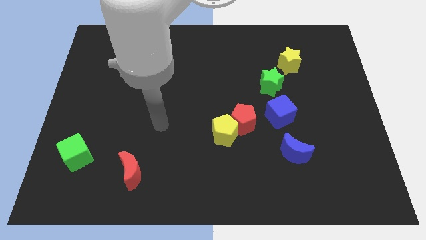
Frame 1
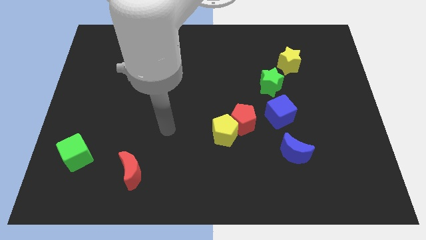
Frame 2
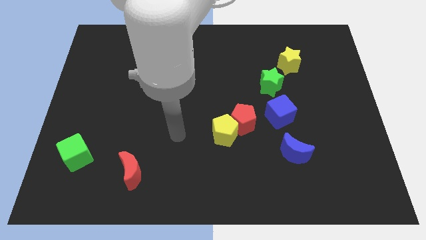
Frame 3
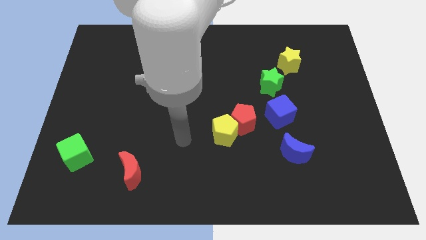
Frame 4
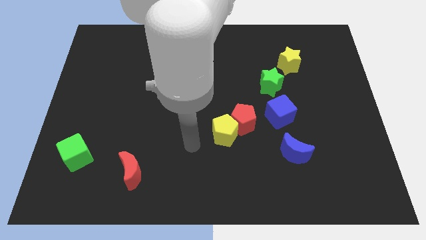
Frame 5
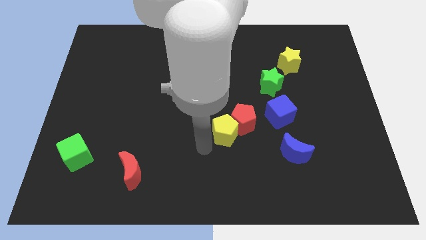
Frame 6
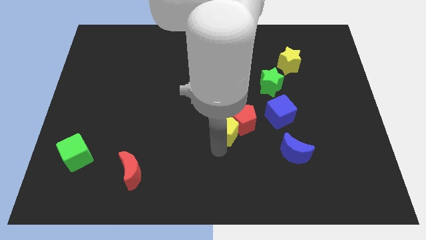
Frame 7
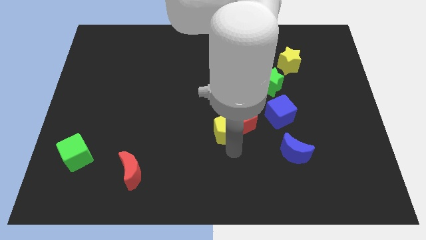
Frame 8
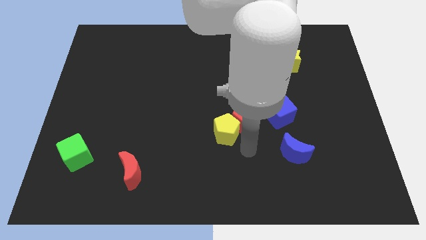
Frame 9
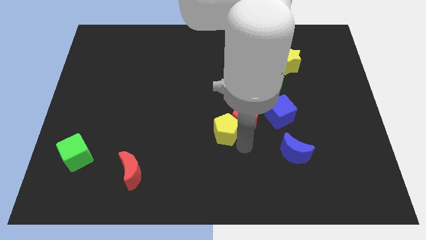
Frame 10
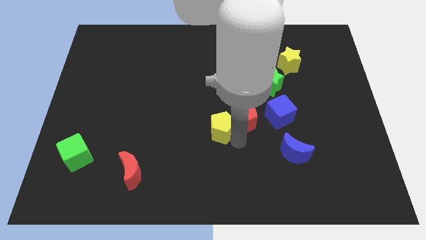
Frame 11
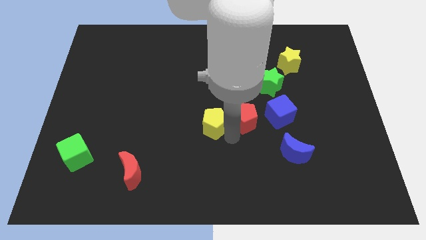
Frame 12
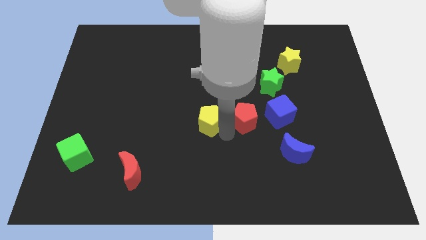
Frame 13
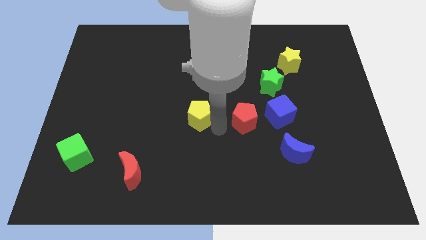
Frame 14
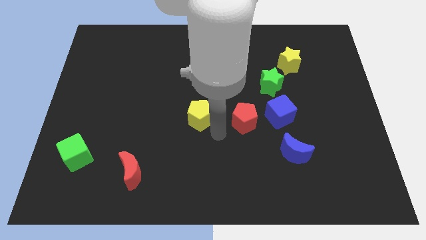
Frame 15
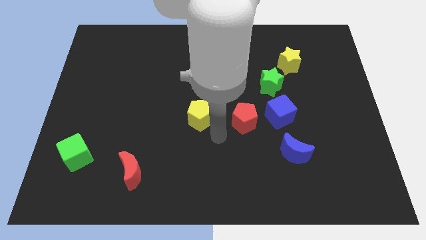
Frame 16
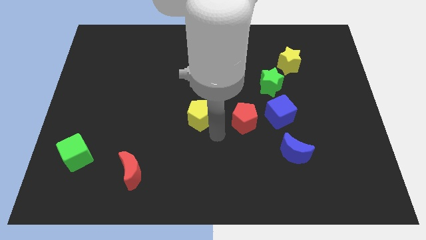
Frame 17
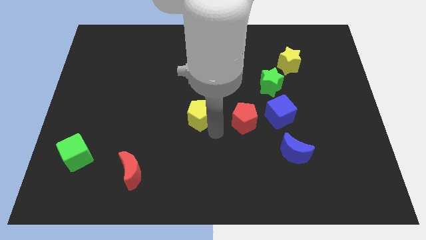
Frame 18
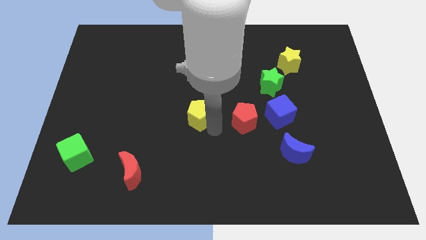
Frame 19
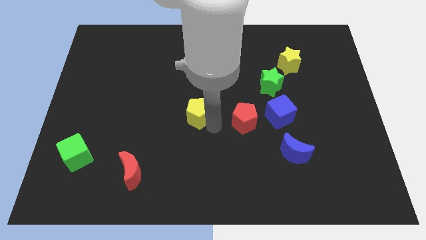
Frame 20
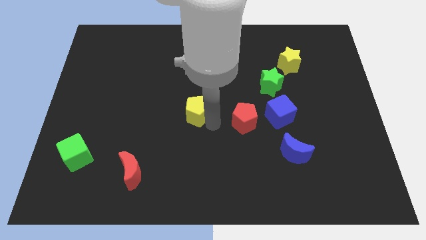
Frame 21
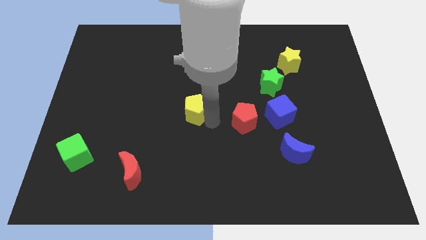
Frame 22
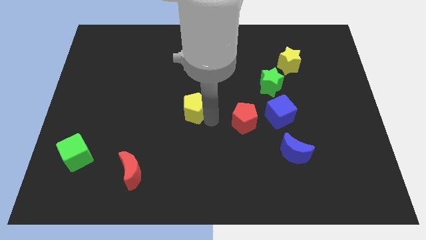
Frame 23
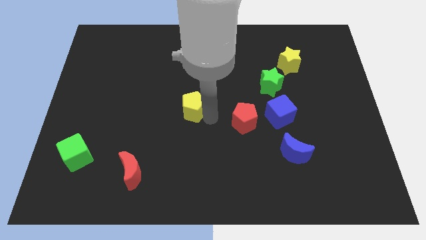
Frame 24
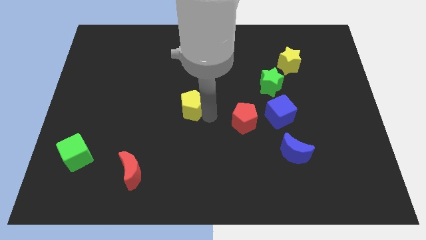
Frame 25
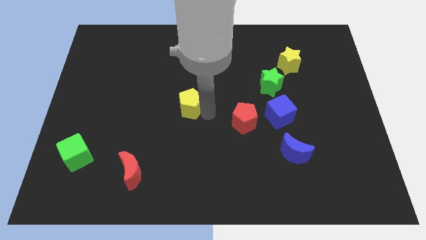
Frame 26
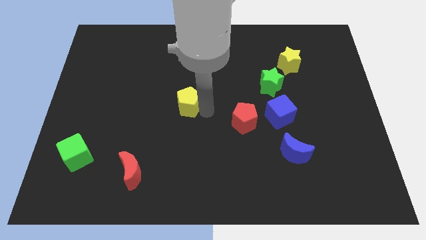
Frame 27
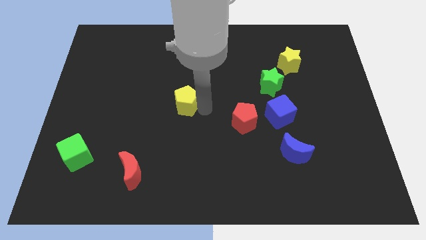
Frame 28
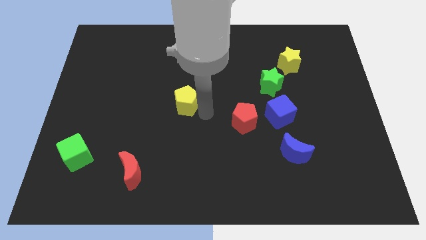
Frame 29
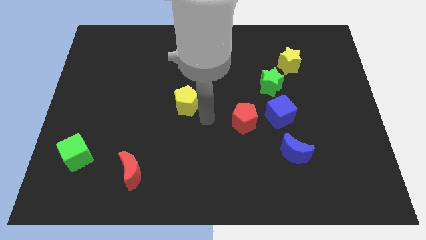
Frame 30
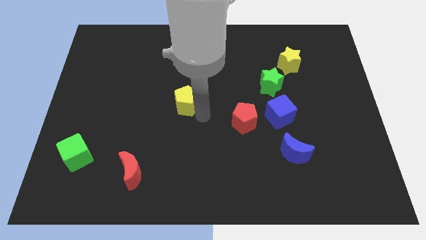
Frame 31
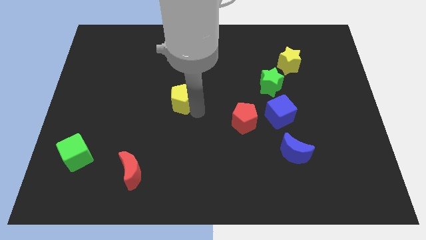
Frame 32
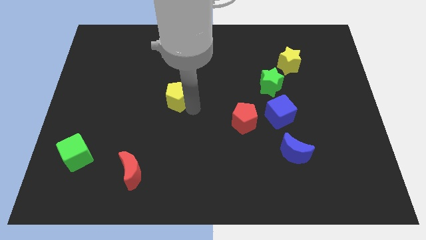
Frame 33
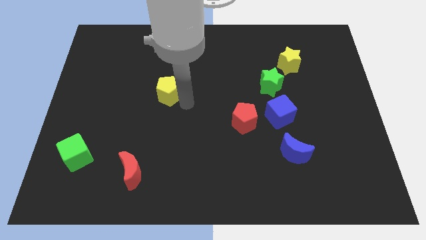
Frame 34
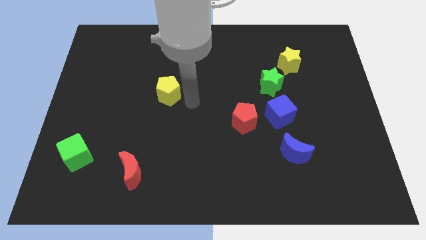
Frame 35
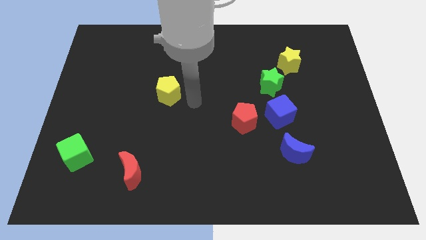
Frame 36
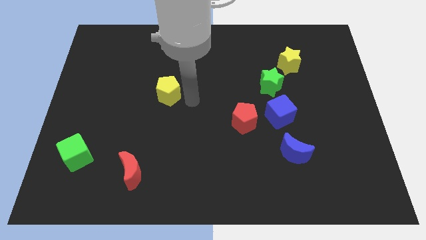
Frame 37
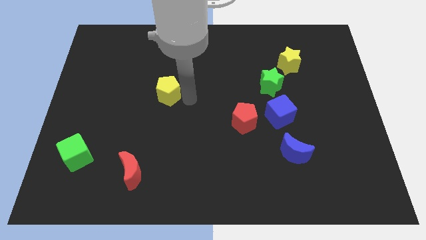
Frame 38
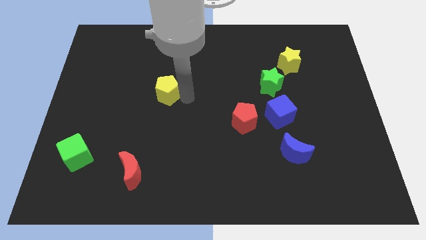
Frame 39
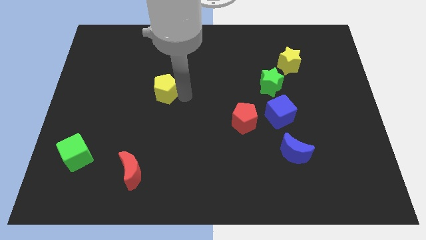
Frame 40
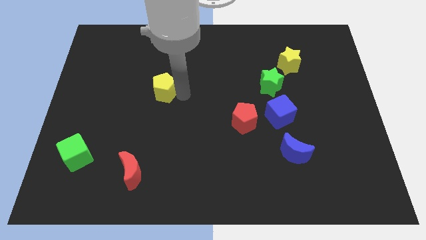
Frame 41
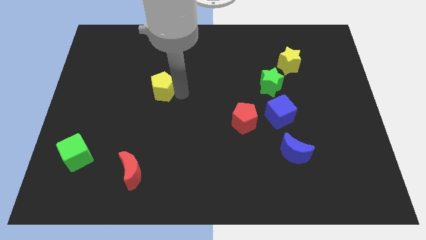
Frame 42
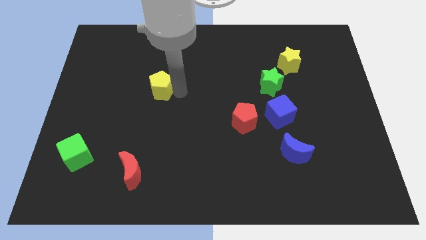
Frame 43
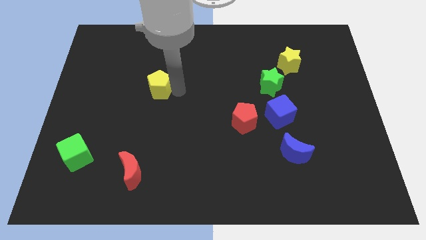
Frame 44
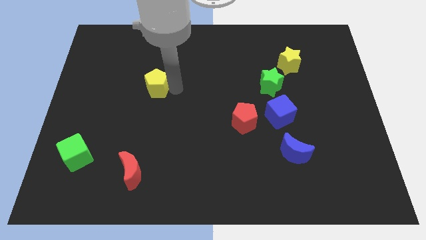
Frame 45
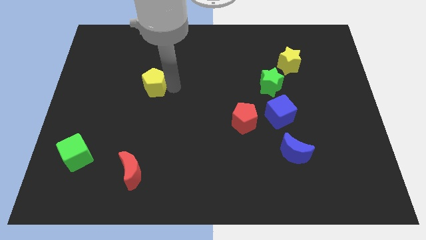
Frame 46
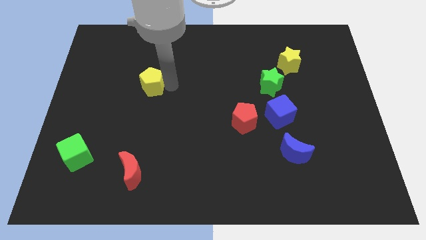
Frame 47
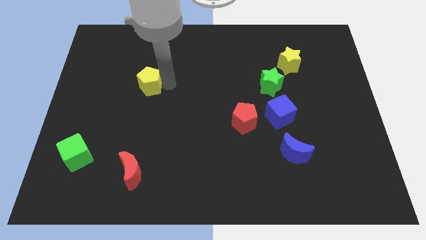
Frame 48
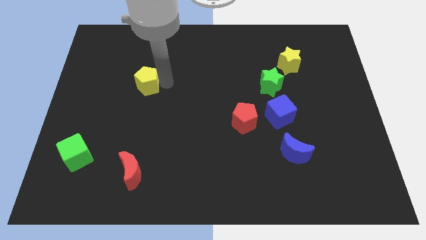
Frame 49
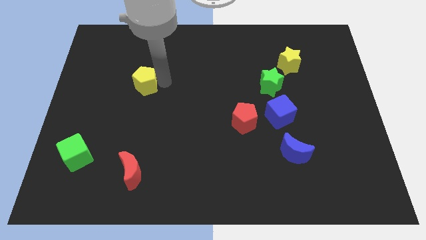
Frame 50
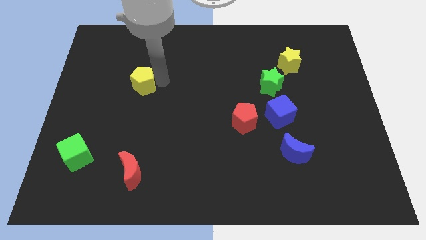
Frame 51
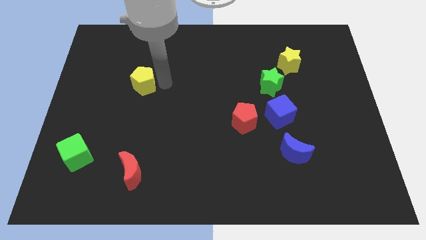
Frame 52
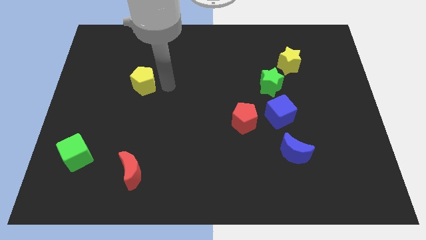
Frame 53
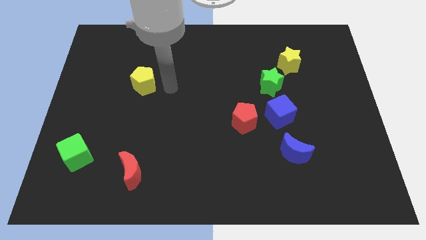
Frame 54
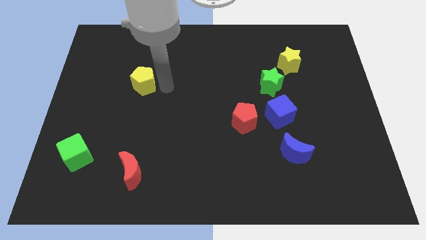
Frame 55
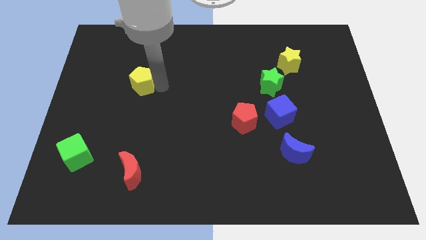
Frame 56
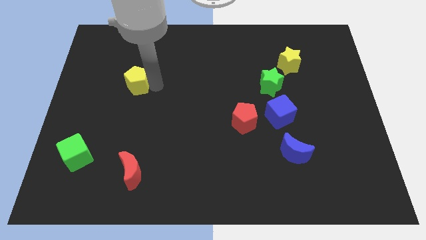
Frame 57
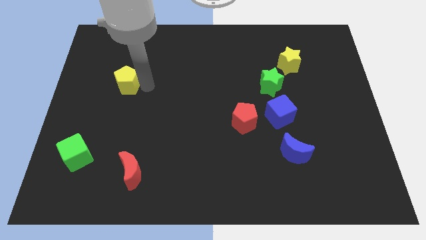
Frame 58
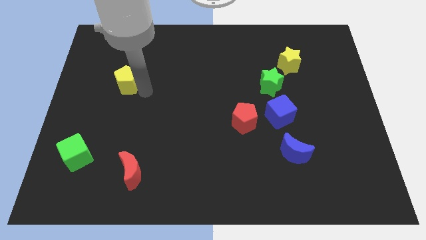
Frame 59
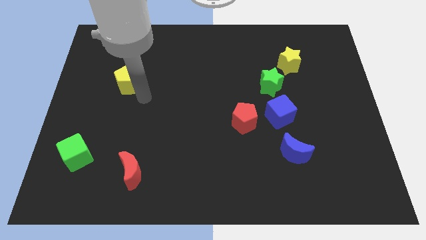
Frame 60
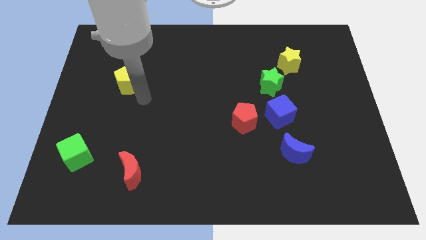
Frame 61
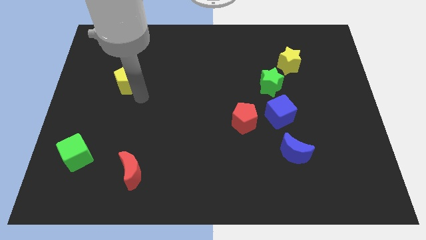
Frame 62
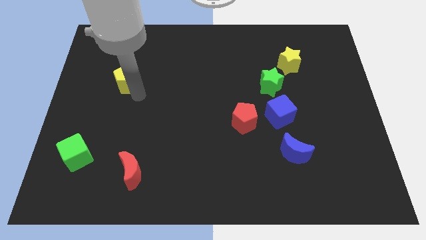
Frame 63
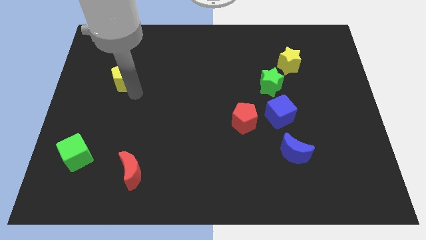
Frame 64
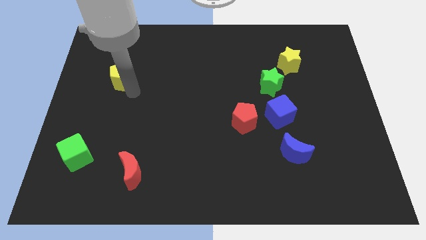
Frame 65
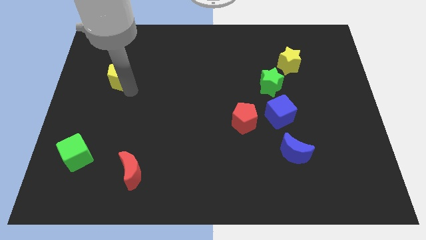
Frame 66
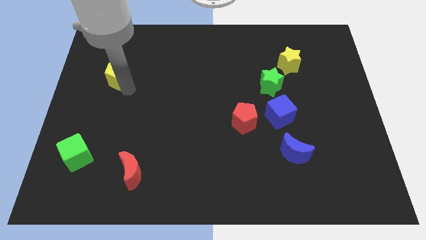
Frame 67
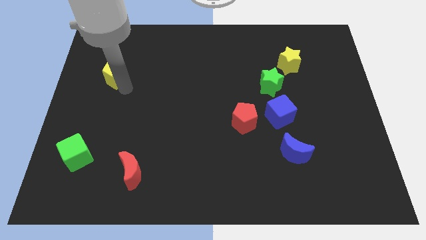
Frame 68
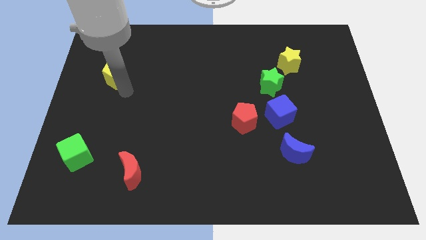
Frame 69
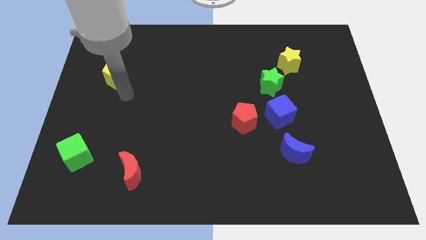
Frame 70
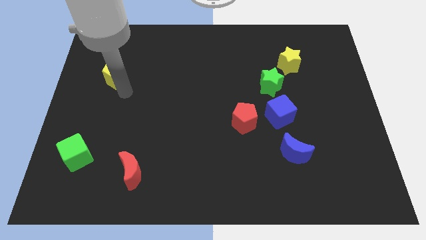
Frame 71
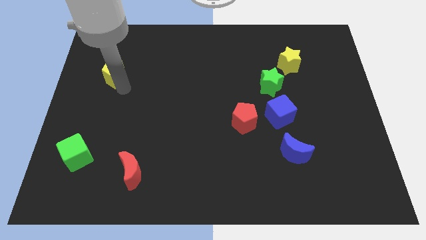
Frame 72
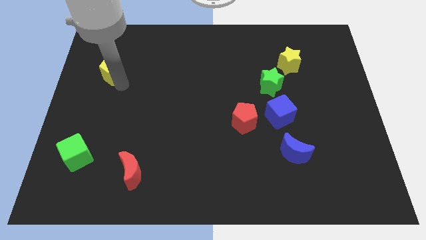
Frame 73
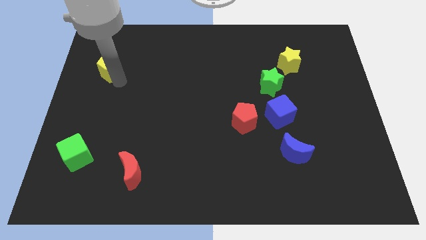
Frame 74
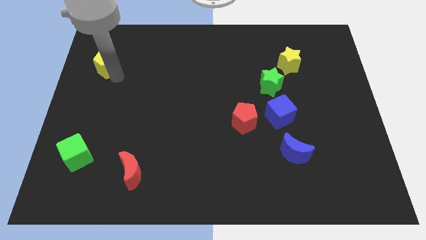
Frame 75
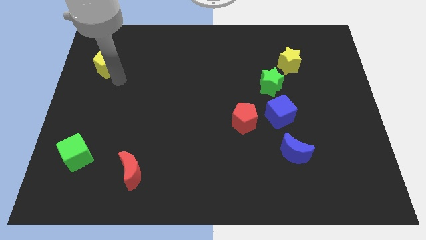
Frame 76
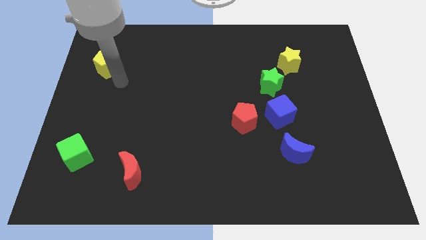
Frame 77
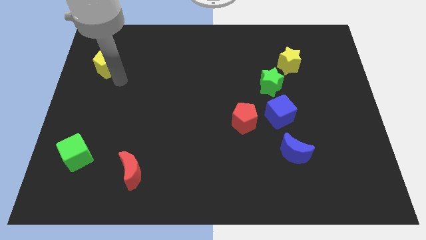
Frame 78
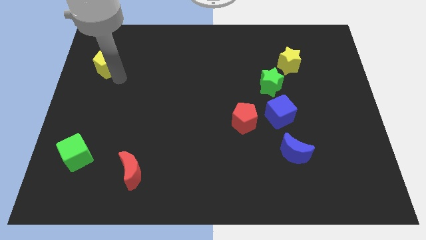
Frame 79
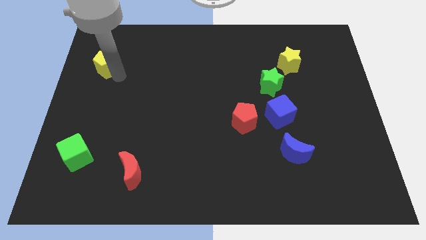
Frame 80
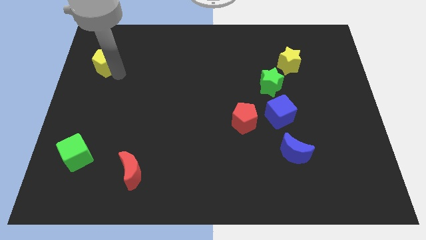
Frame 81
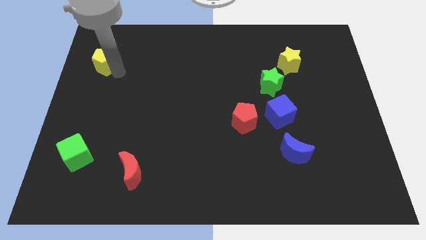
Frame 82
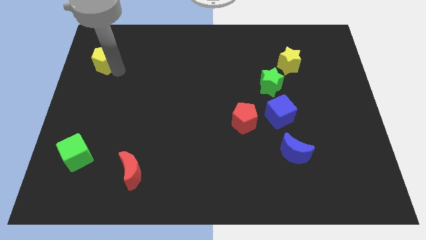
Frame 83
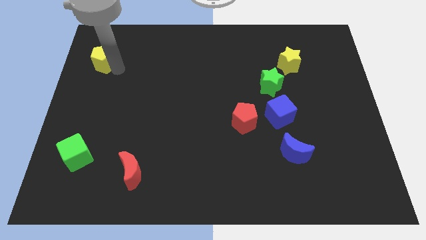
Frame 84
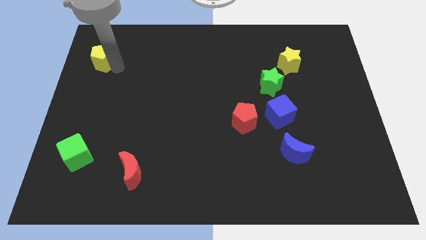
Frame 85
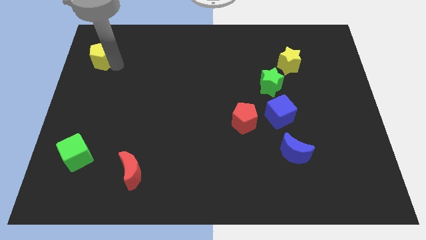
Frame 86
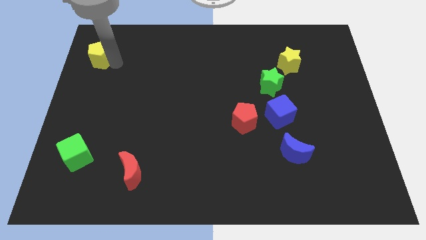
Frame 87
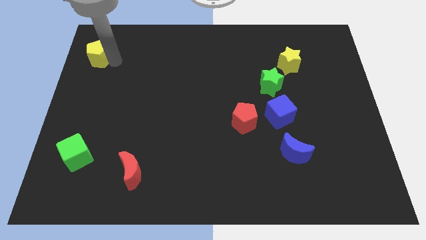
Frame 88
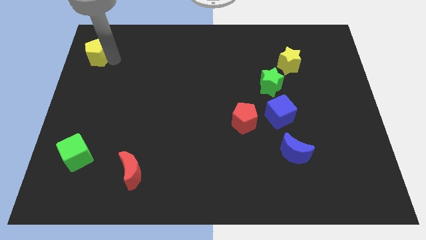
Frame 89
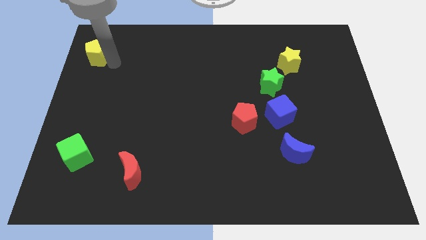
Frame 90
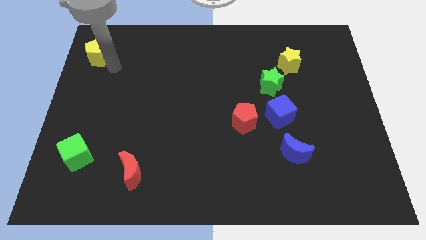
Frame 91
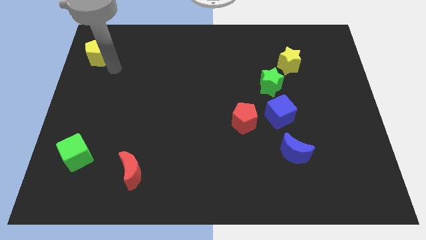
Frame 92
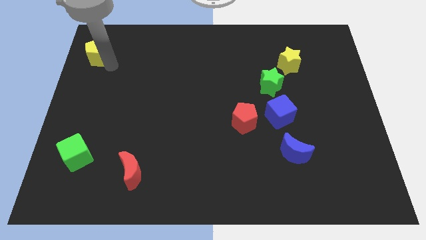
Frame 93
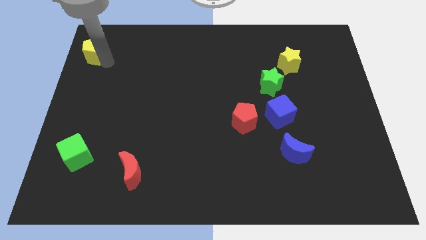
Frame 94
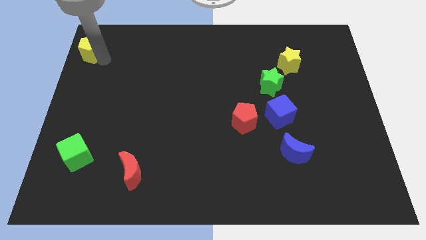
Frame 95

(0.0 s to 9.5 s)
put the yellow pentagon to the top left
